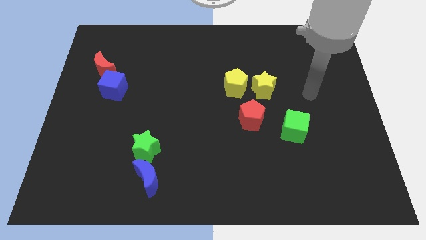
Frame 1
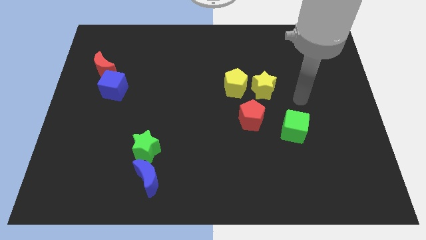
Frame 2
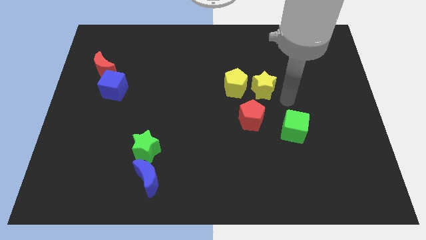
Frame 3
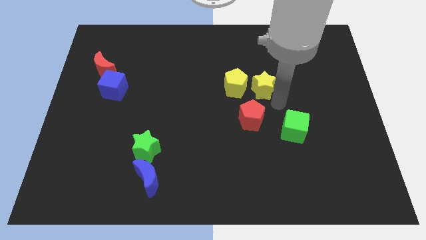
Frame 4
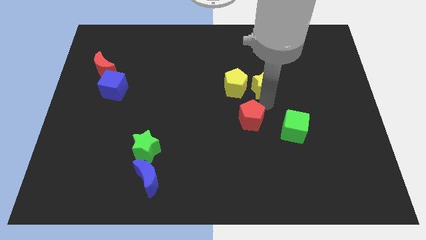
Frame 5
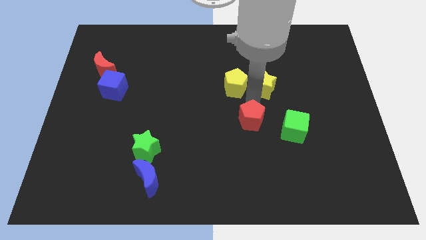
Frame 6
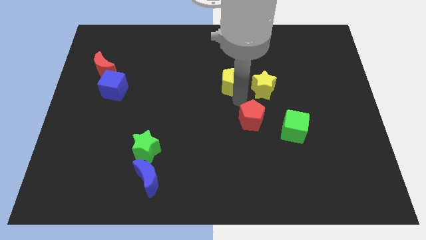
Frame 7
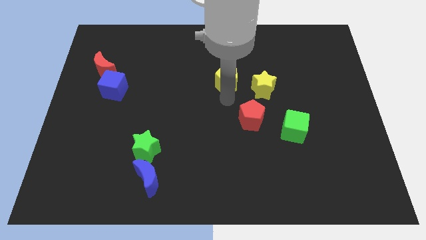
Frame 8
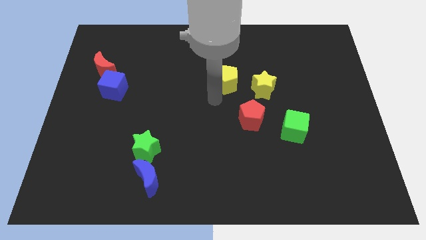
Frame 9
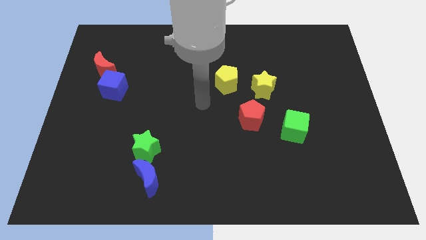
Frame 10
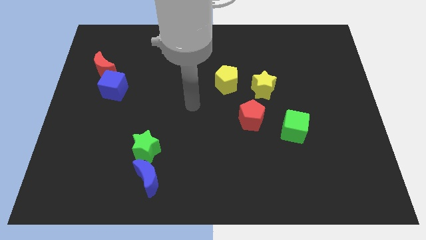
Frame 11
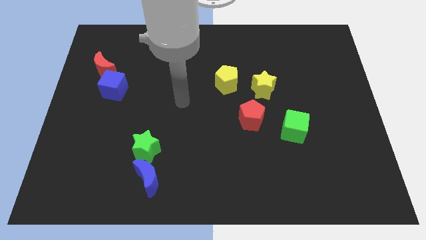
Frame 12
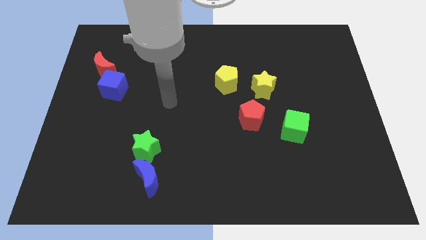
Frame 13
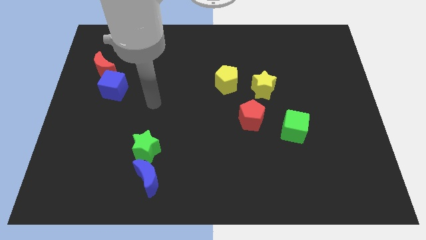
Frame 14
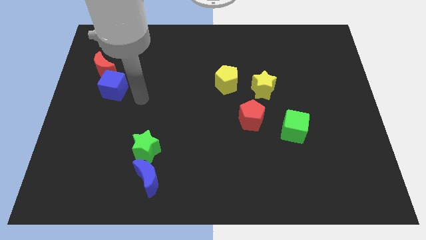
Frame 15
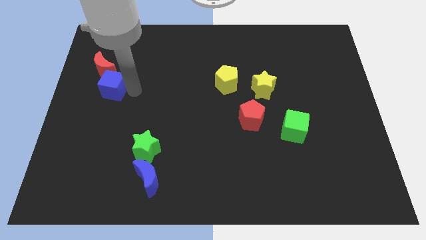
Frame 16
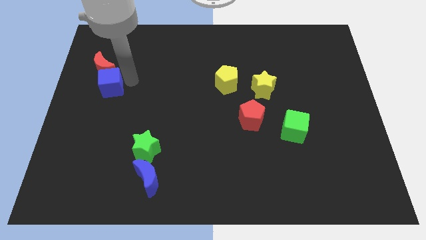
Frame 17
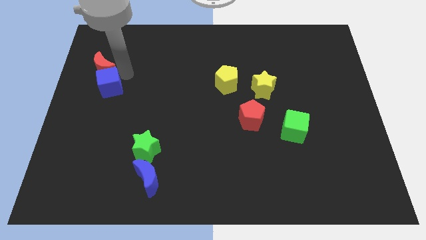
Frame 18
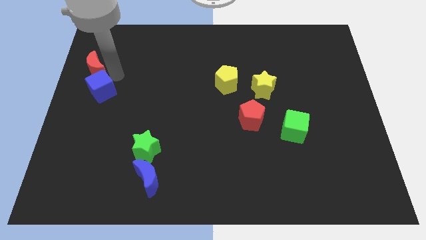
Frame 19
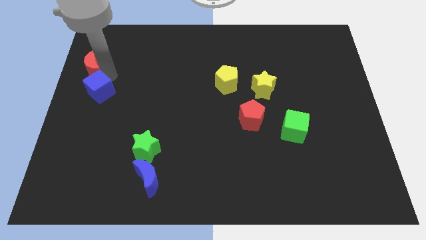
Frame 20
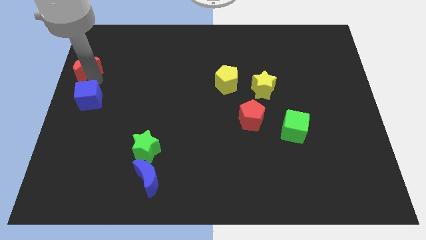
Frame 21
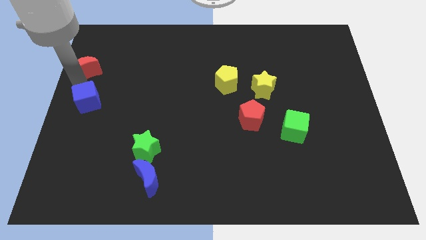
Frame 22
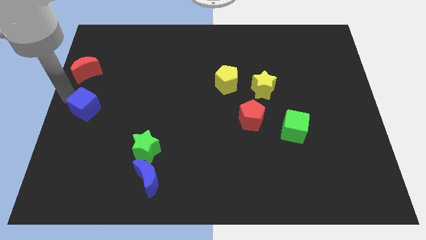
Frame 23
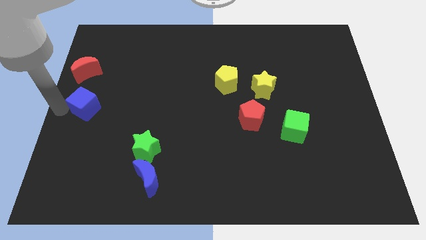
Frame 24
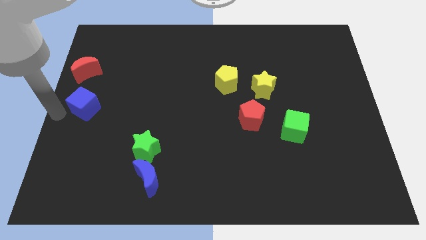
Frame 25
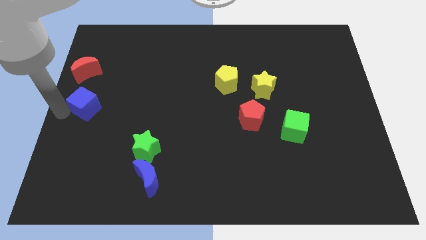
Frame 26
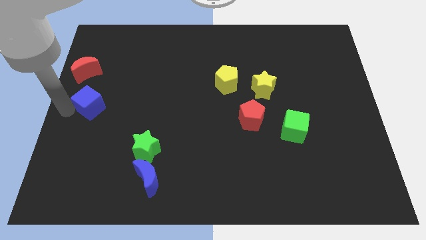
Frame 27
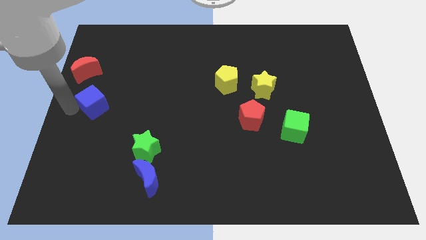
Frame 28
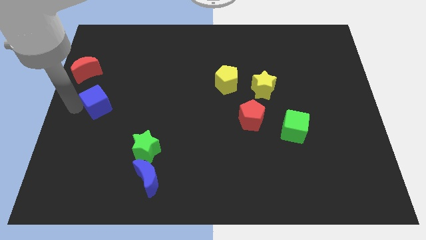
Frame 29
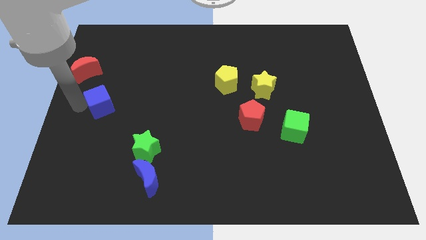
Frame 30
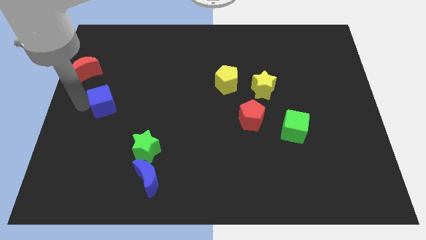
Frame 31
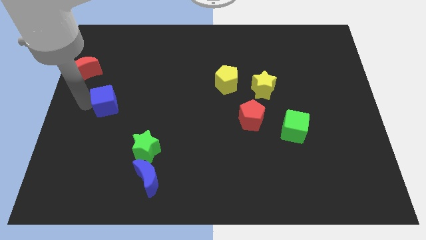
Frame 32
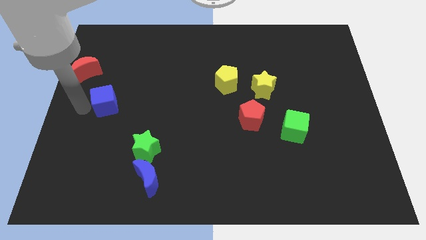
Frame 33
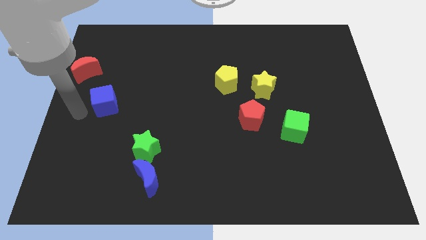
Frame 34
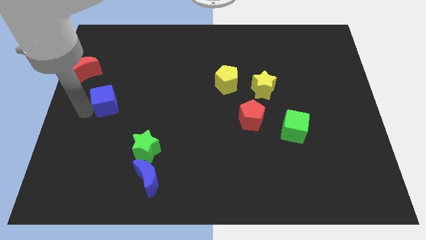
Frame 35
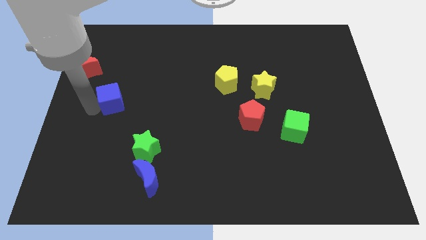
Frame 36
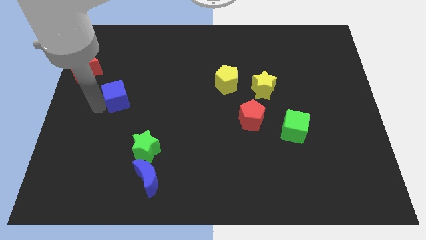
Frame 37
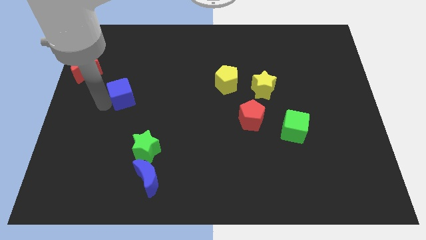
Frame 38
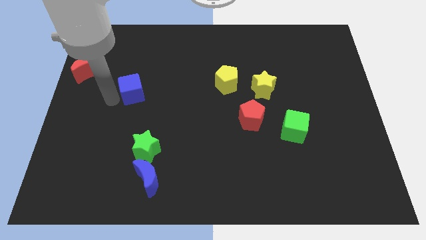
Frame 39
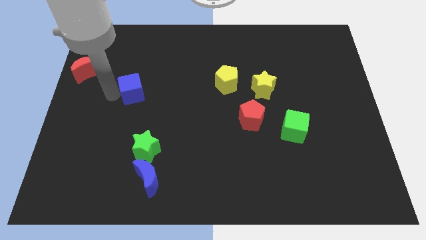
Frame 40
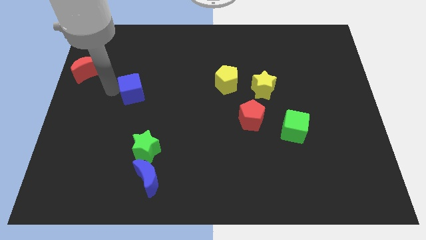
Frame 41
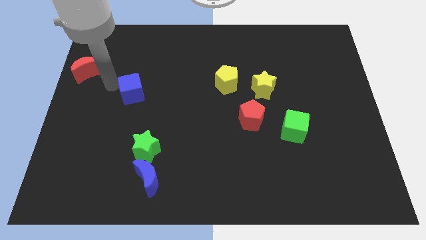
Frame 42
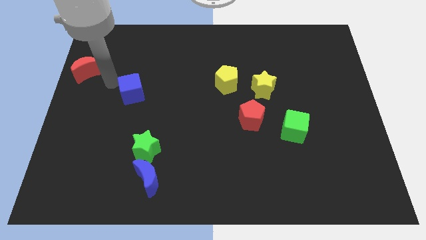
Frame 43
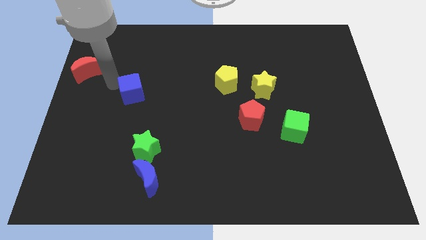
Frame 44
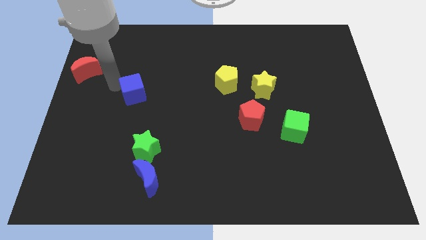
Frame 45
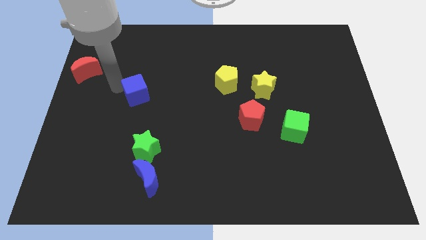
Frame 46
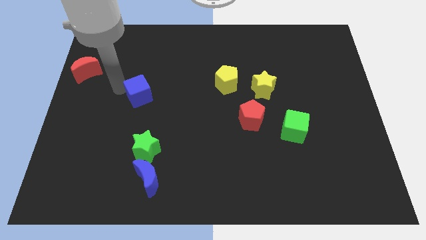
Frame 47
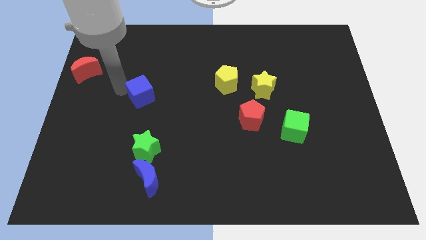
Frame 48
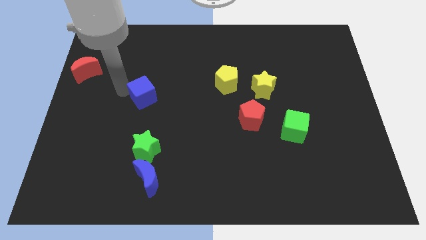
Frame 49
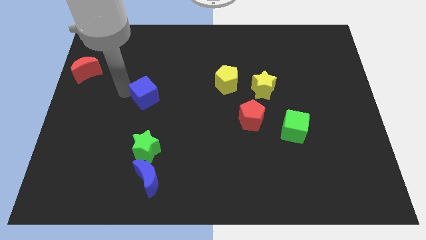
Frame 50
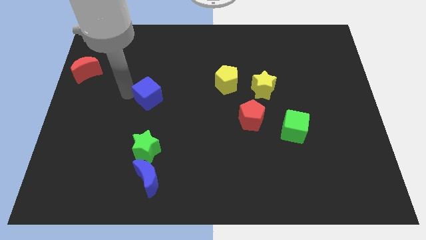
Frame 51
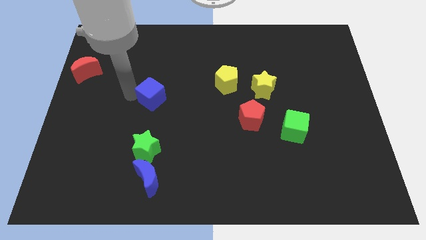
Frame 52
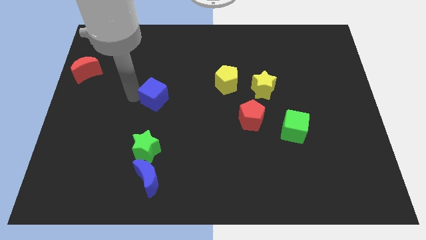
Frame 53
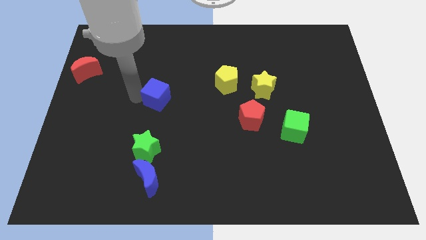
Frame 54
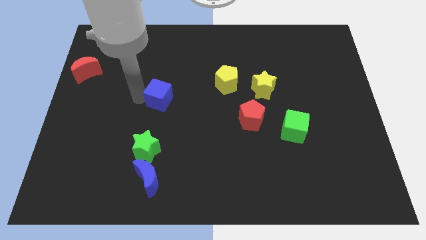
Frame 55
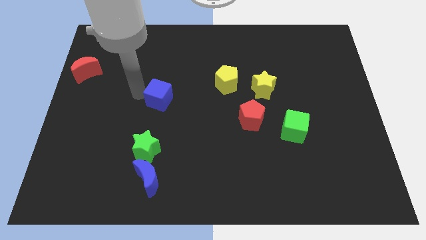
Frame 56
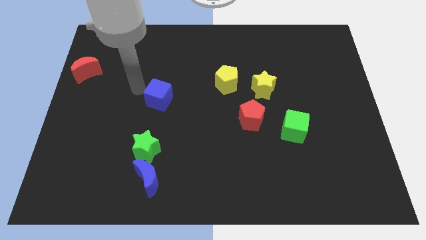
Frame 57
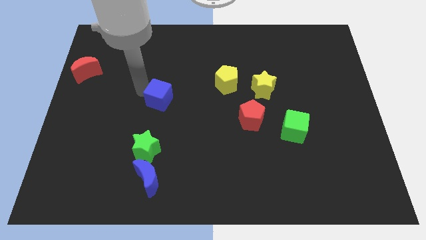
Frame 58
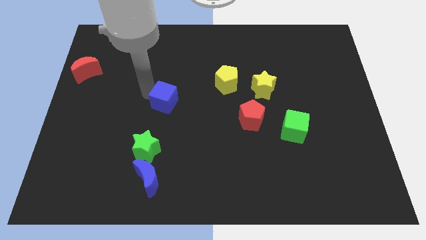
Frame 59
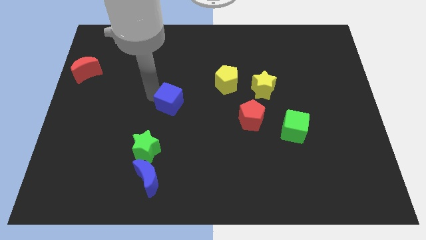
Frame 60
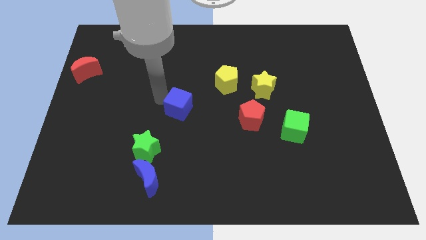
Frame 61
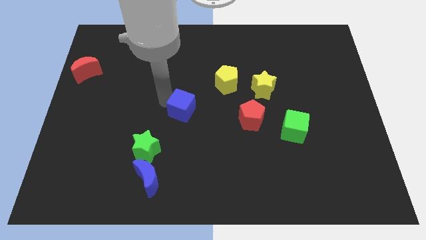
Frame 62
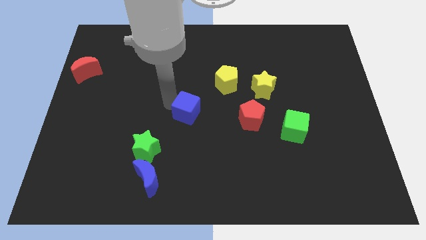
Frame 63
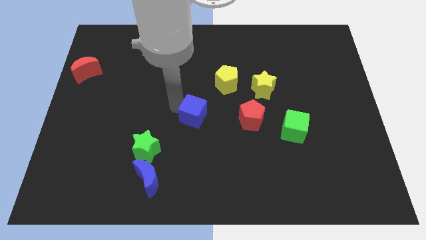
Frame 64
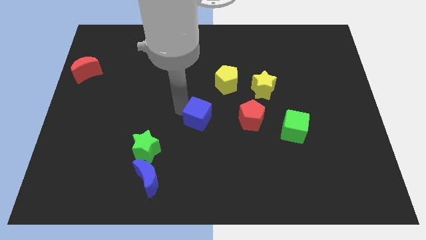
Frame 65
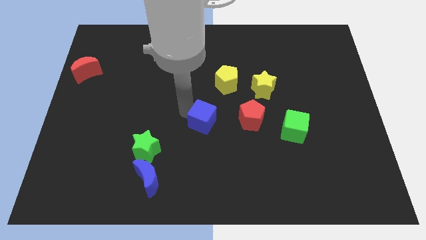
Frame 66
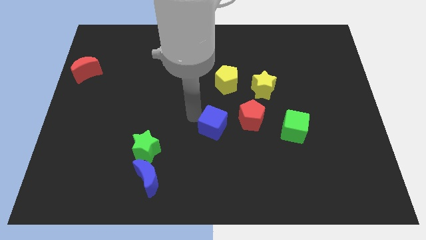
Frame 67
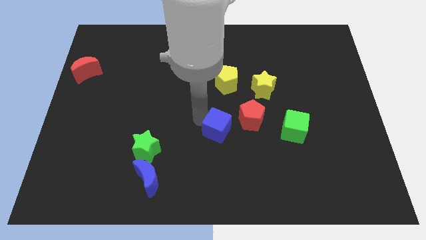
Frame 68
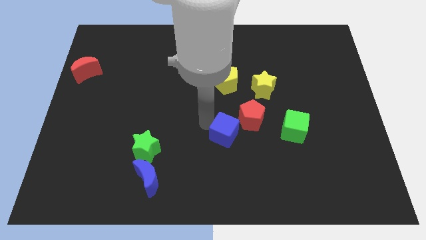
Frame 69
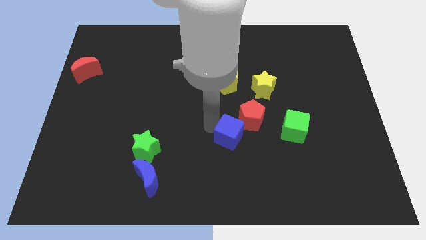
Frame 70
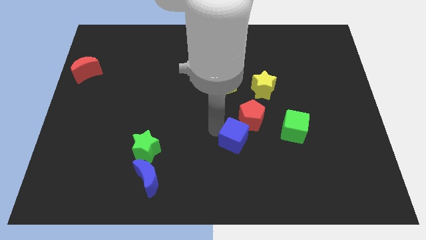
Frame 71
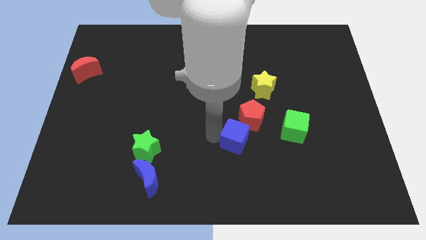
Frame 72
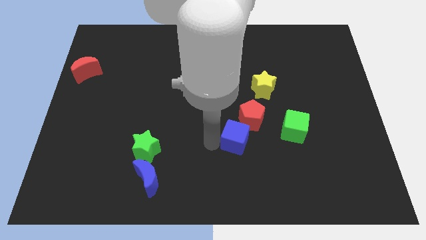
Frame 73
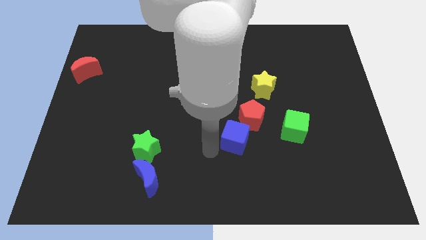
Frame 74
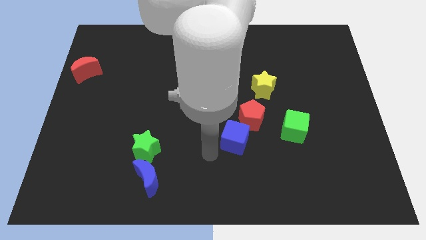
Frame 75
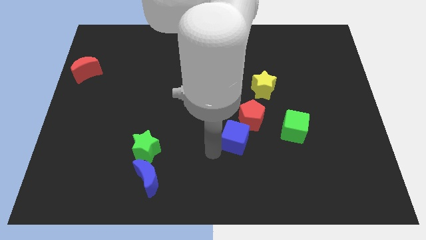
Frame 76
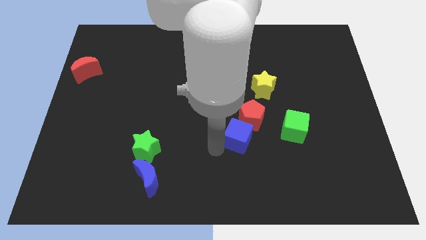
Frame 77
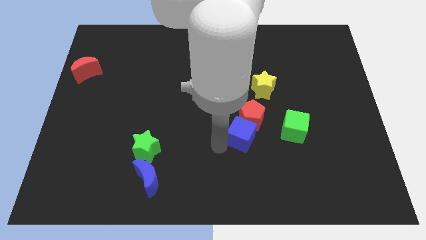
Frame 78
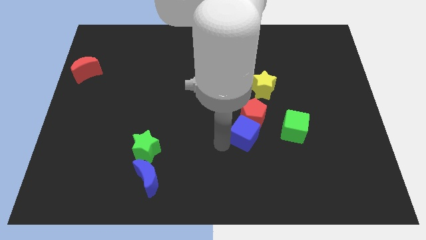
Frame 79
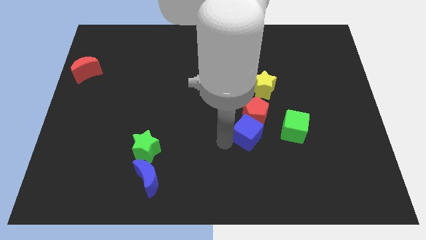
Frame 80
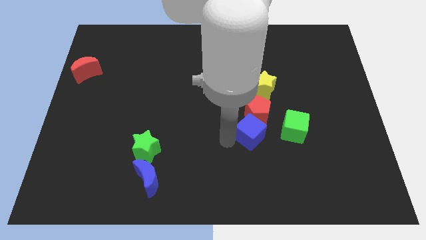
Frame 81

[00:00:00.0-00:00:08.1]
slide the blue cube to the bottom of the yellow star
